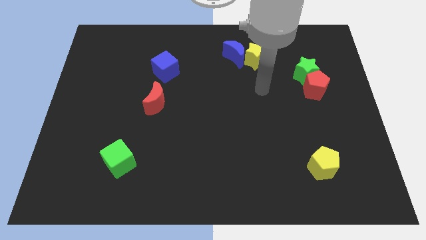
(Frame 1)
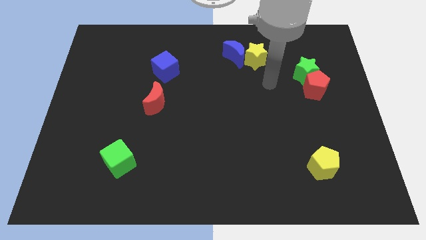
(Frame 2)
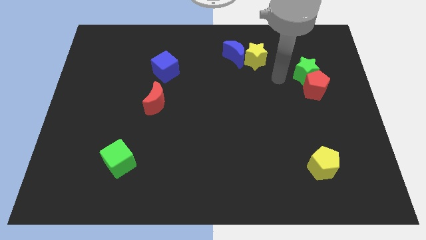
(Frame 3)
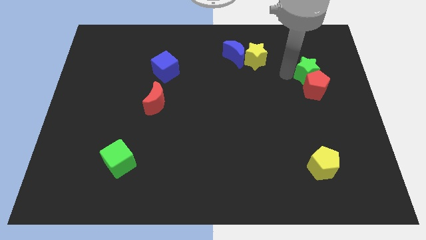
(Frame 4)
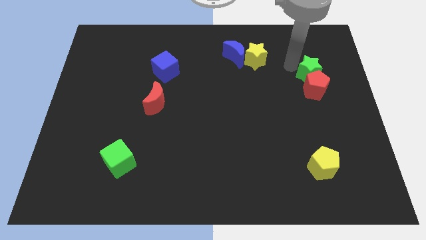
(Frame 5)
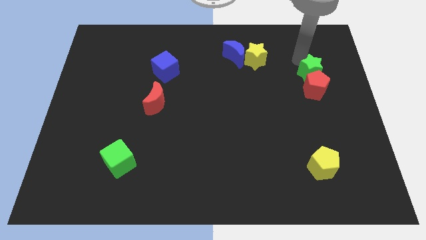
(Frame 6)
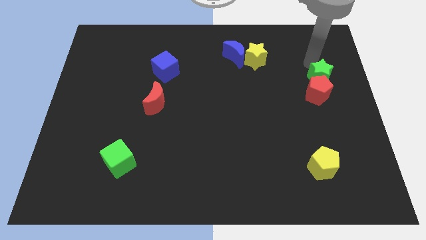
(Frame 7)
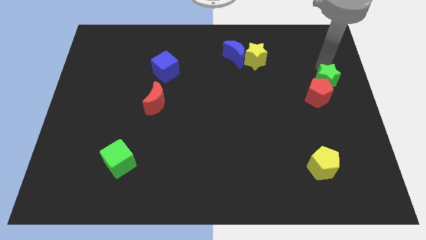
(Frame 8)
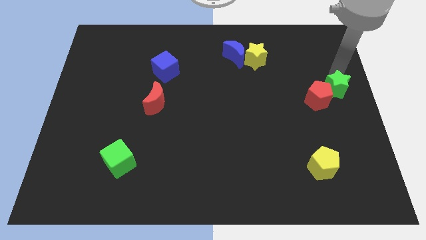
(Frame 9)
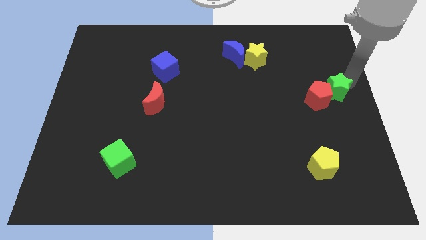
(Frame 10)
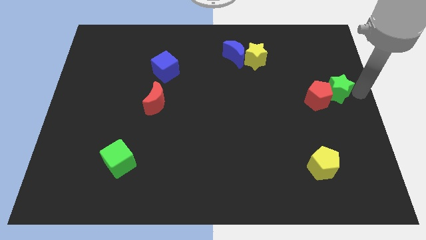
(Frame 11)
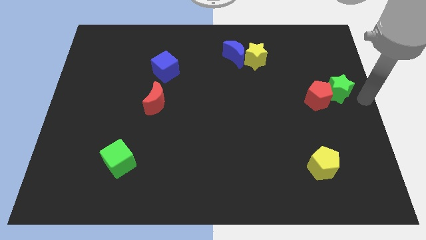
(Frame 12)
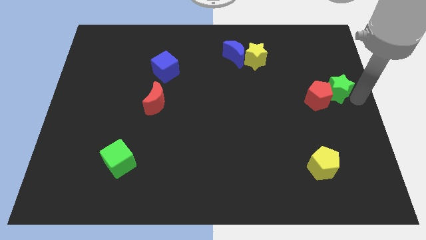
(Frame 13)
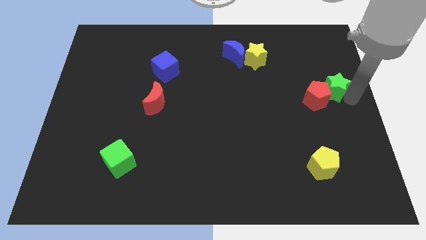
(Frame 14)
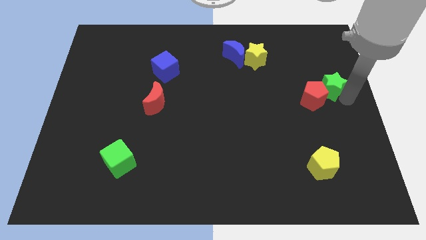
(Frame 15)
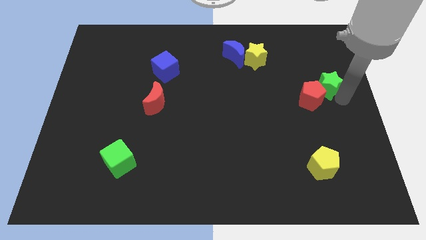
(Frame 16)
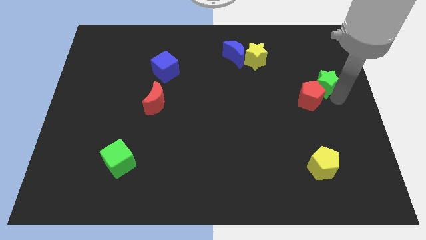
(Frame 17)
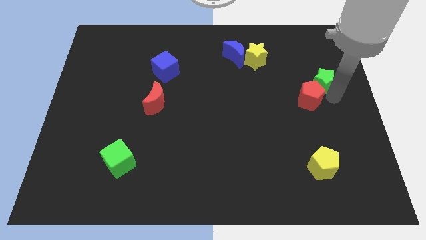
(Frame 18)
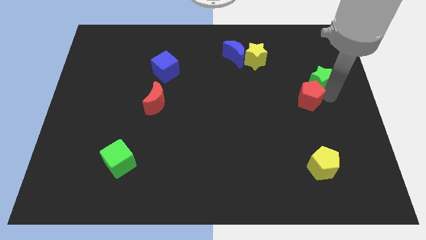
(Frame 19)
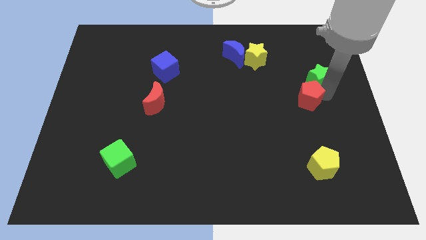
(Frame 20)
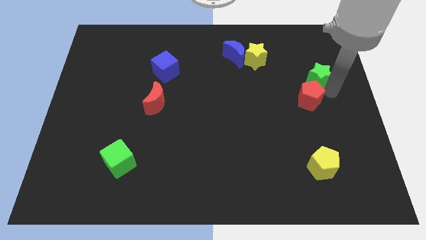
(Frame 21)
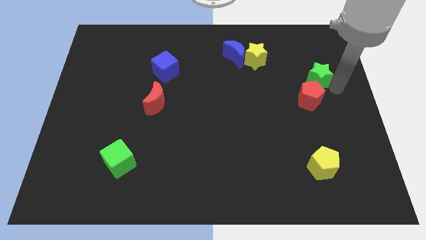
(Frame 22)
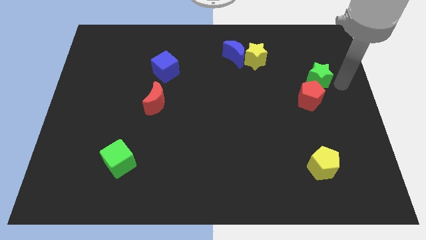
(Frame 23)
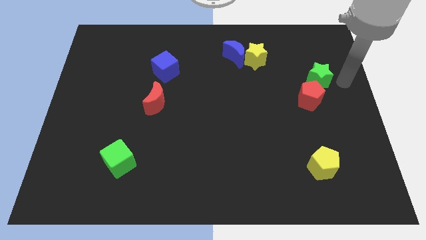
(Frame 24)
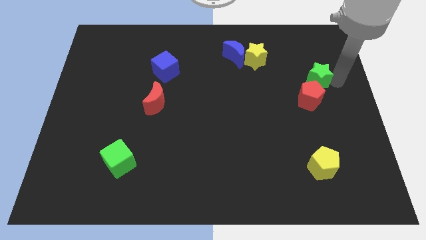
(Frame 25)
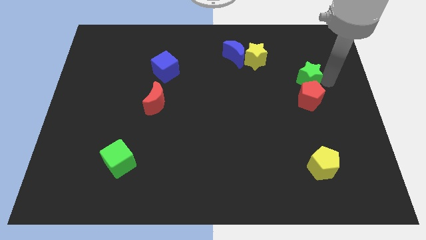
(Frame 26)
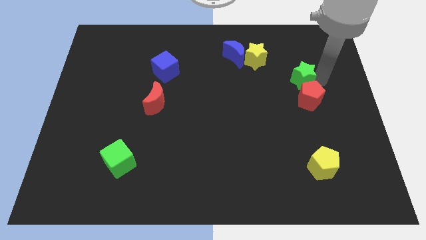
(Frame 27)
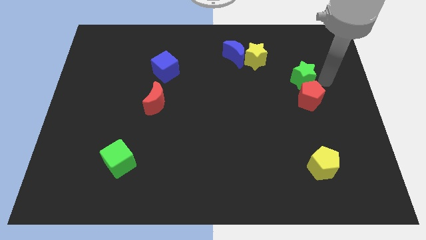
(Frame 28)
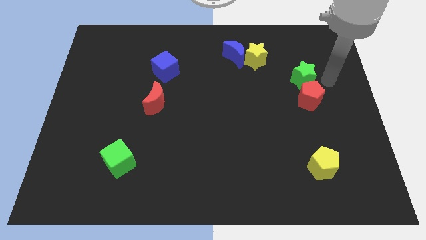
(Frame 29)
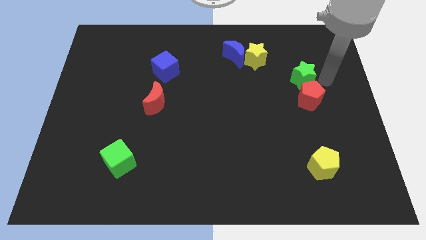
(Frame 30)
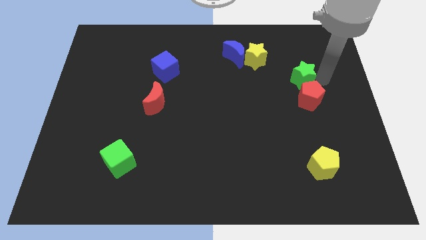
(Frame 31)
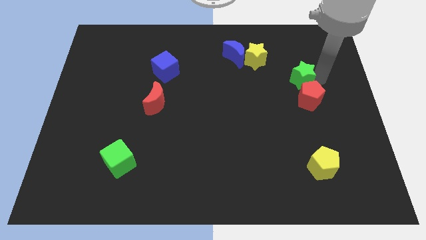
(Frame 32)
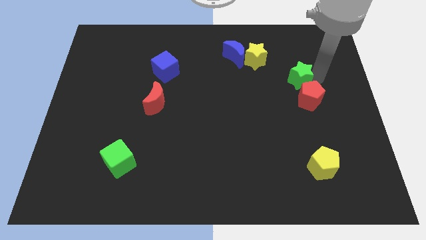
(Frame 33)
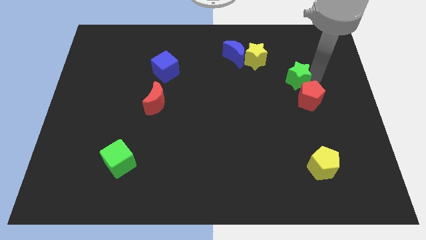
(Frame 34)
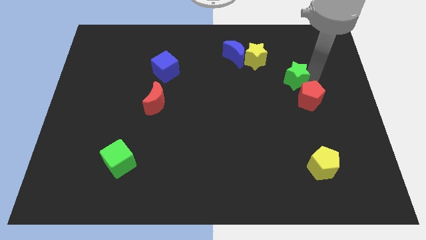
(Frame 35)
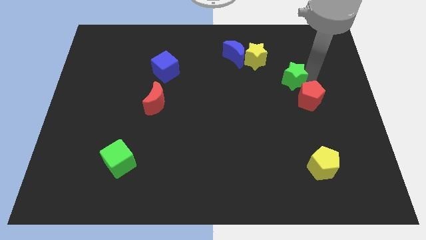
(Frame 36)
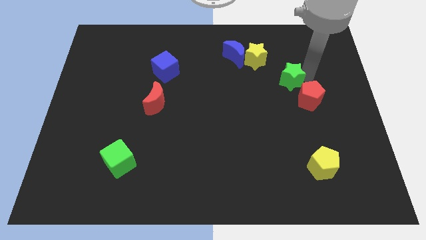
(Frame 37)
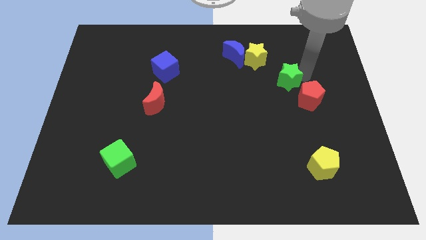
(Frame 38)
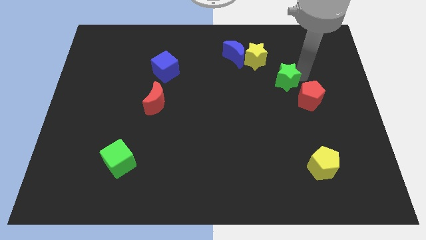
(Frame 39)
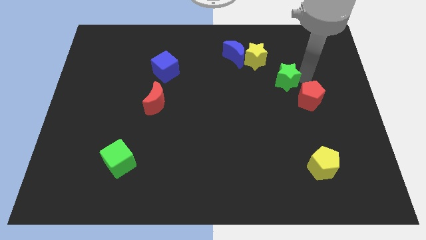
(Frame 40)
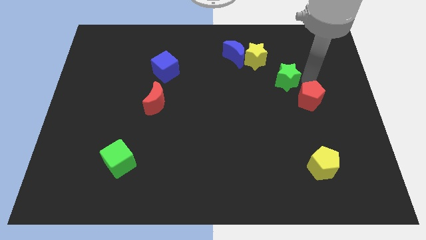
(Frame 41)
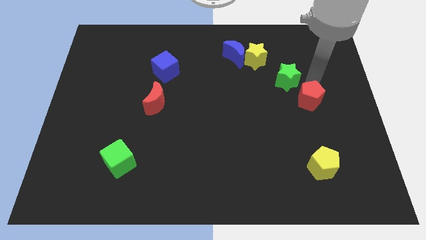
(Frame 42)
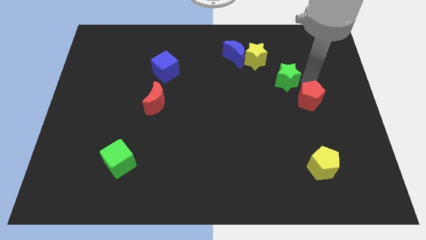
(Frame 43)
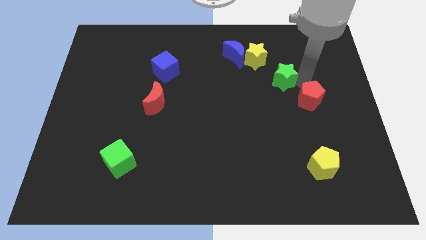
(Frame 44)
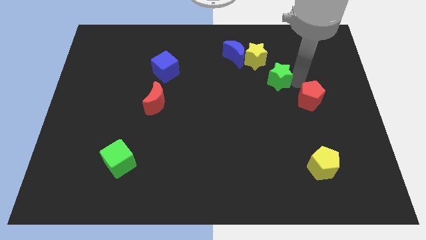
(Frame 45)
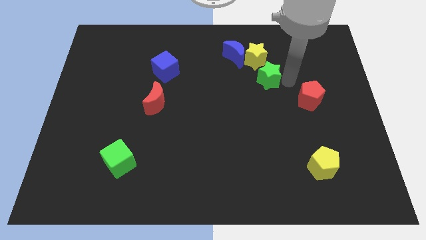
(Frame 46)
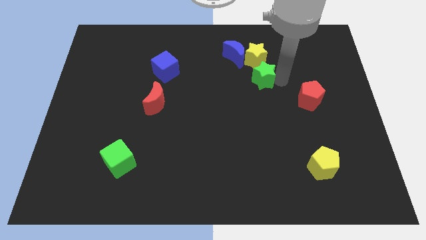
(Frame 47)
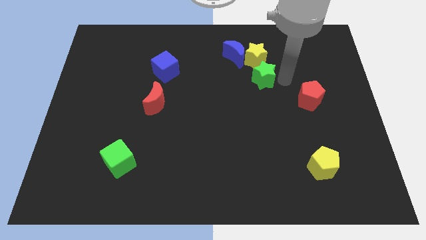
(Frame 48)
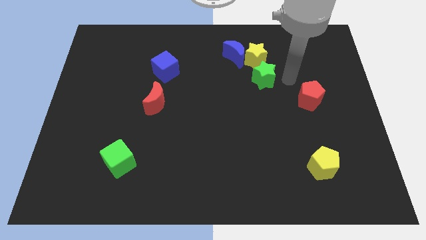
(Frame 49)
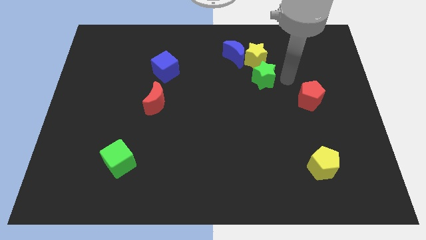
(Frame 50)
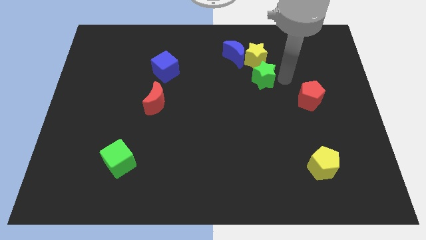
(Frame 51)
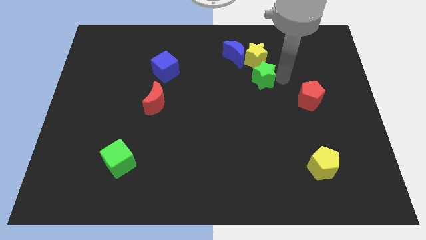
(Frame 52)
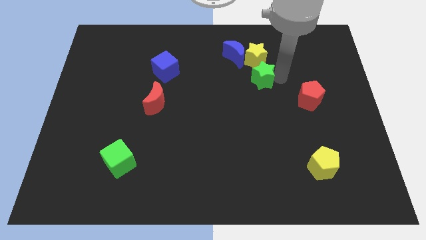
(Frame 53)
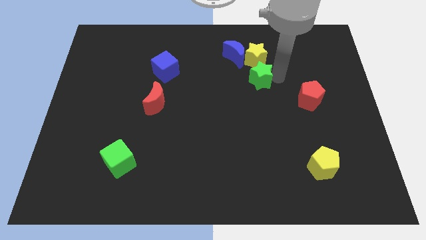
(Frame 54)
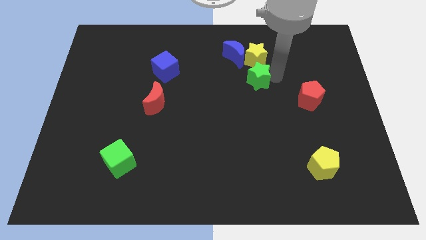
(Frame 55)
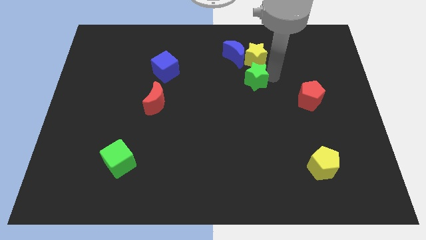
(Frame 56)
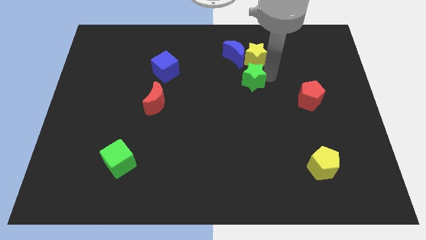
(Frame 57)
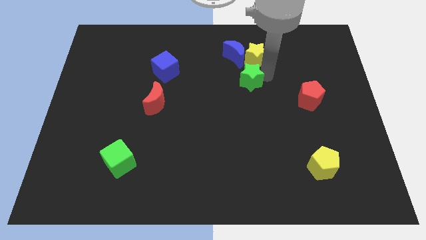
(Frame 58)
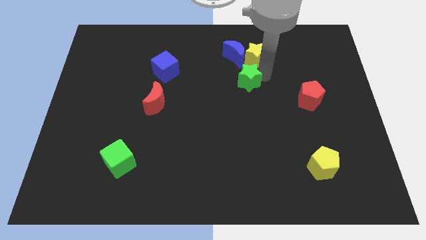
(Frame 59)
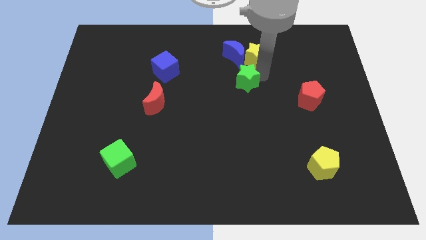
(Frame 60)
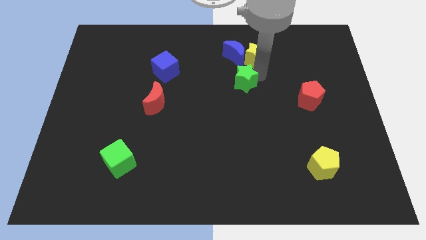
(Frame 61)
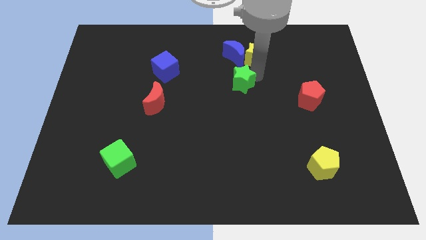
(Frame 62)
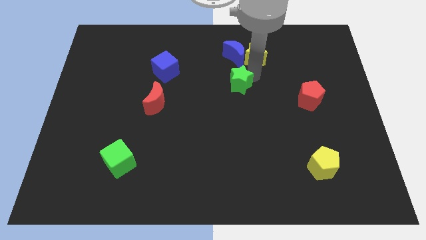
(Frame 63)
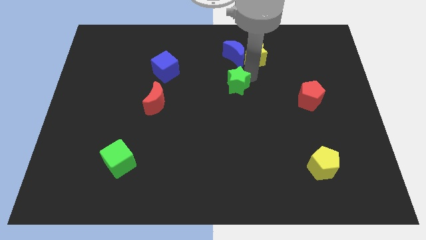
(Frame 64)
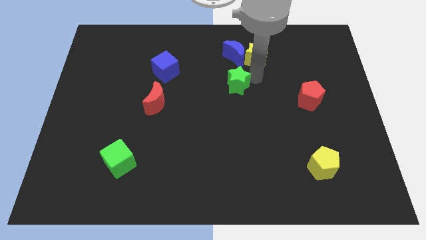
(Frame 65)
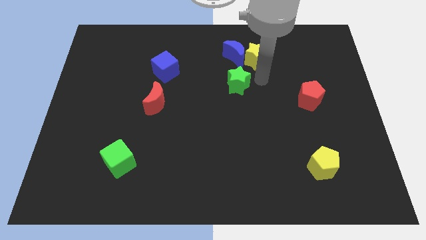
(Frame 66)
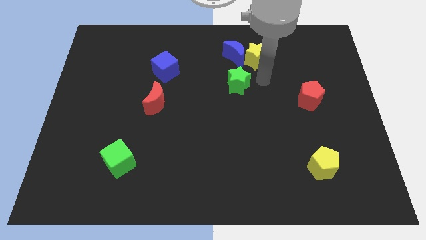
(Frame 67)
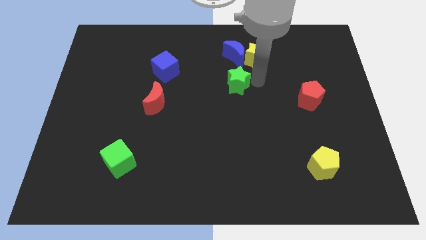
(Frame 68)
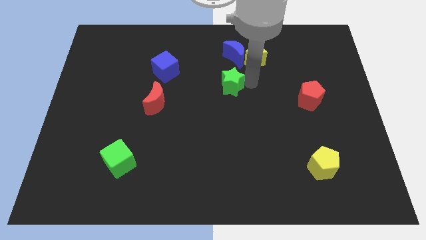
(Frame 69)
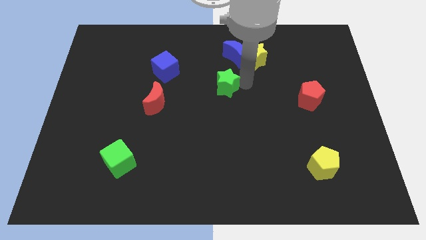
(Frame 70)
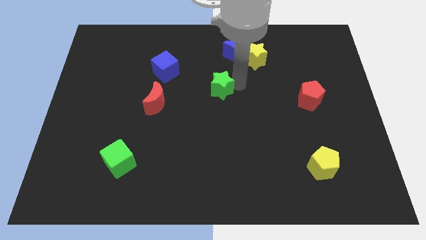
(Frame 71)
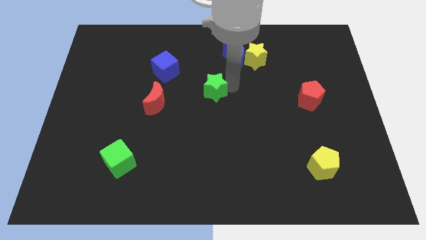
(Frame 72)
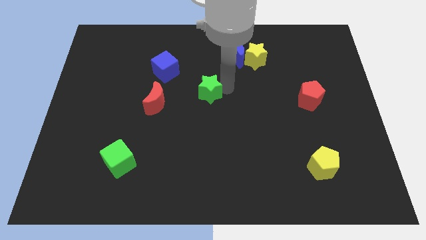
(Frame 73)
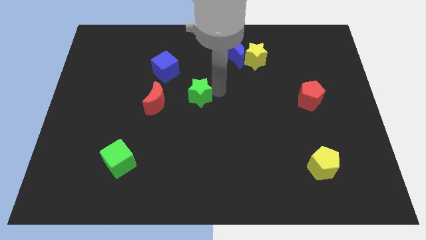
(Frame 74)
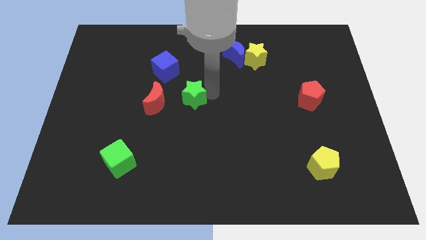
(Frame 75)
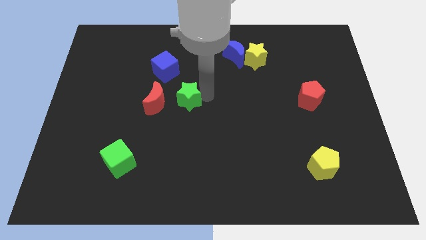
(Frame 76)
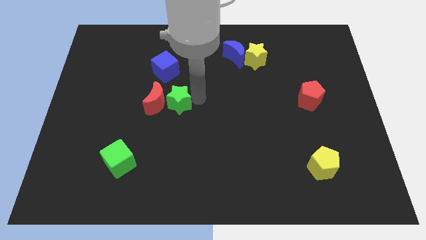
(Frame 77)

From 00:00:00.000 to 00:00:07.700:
move the green star next to the red moon

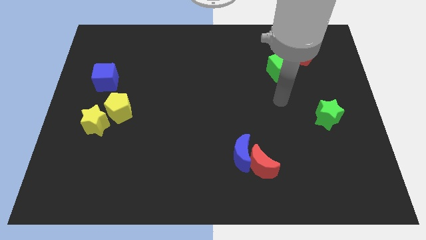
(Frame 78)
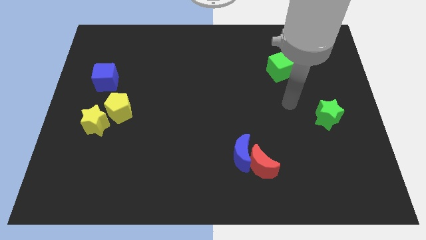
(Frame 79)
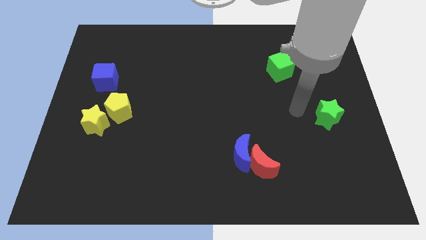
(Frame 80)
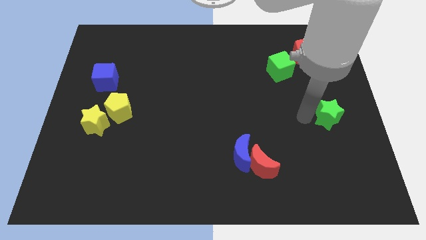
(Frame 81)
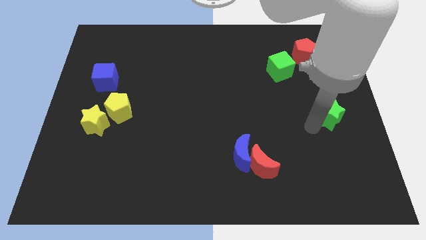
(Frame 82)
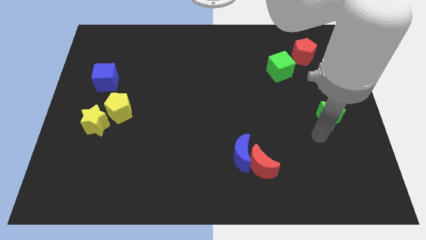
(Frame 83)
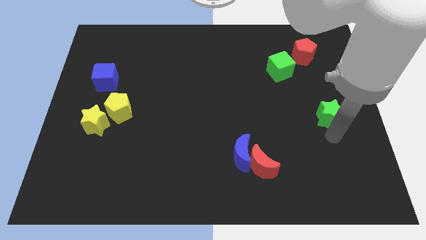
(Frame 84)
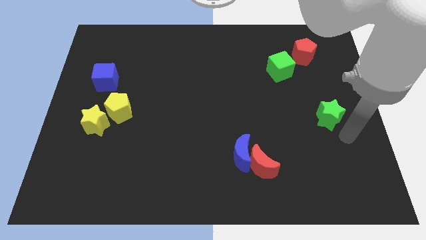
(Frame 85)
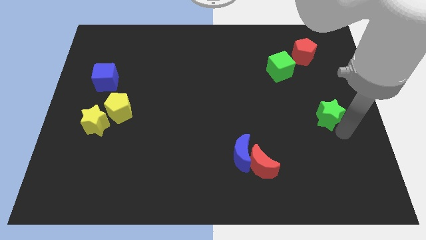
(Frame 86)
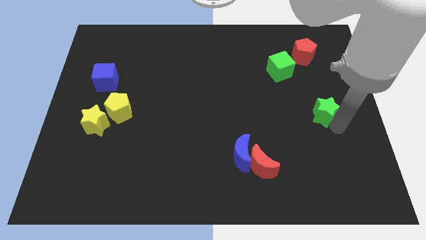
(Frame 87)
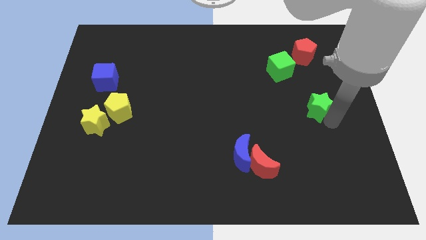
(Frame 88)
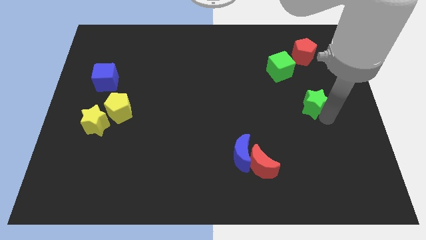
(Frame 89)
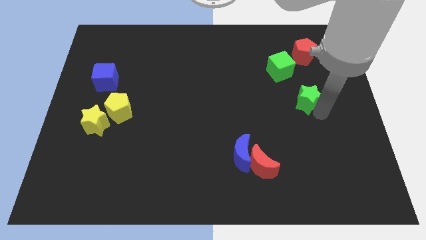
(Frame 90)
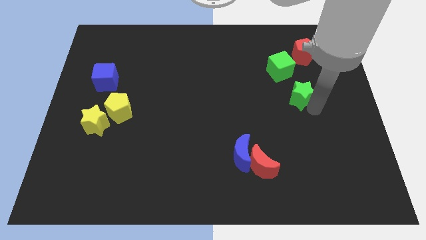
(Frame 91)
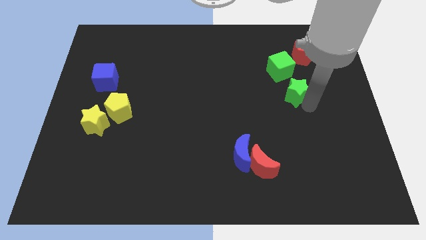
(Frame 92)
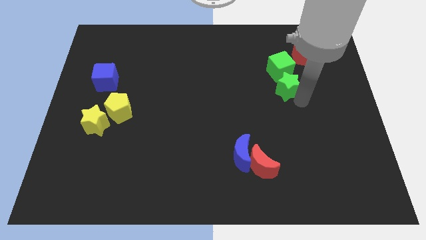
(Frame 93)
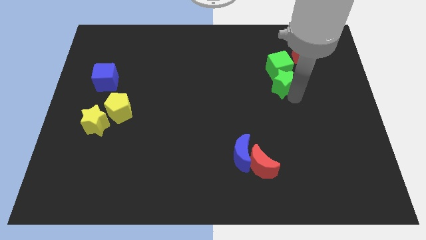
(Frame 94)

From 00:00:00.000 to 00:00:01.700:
push the green star to the green cube
